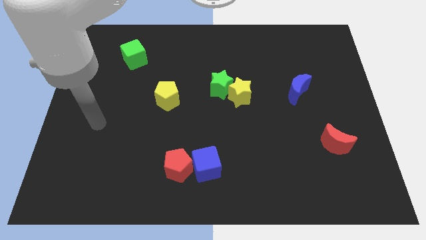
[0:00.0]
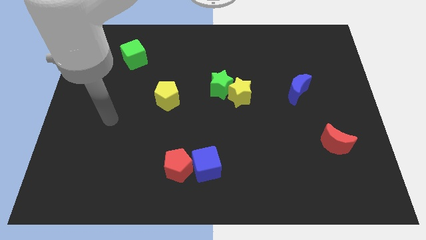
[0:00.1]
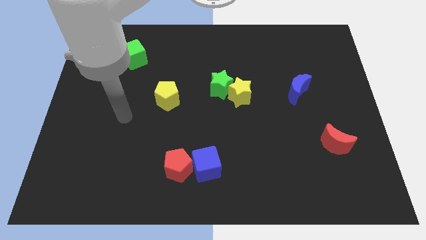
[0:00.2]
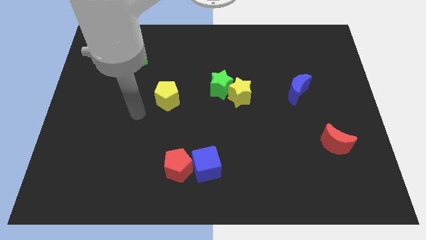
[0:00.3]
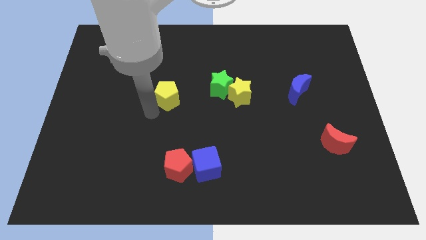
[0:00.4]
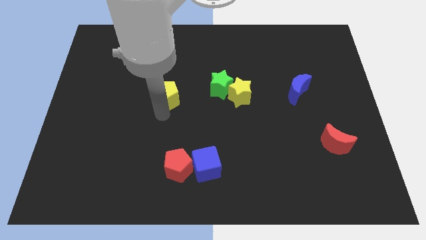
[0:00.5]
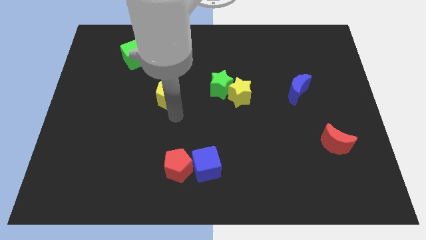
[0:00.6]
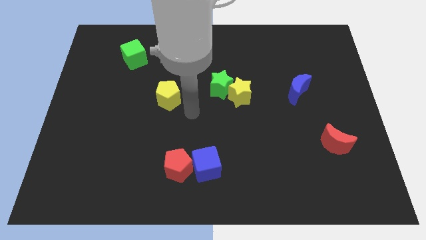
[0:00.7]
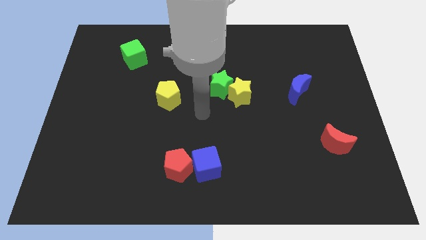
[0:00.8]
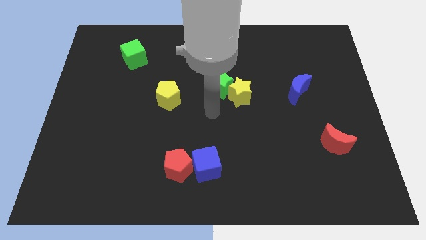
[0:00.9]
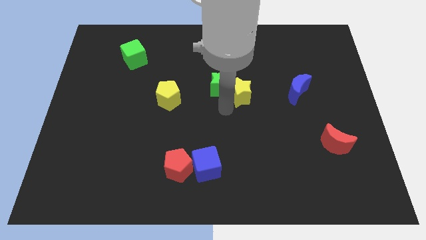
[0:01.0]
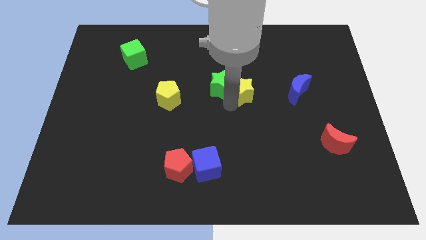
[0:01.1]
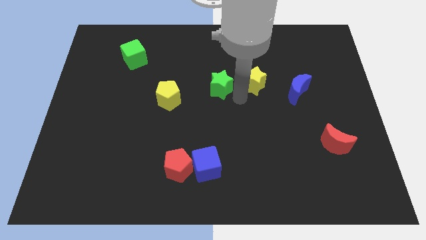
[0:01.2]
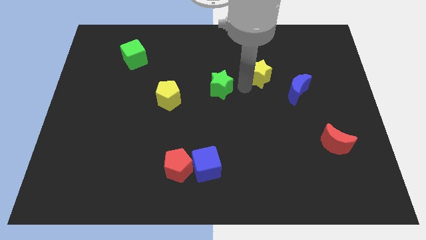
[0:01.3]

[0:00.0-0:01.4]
move the green star away from the yellow star

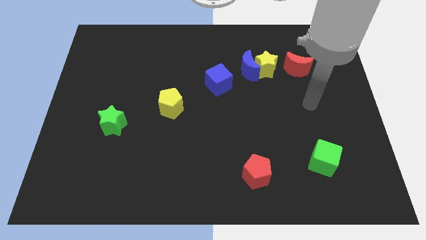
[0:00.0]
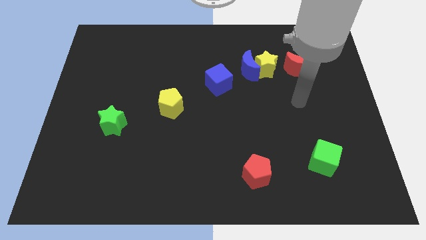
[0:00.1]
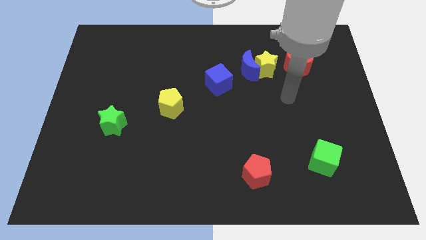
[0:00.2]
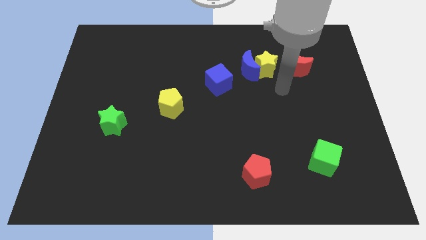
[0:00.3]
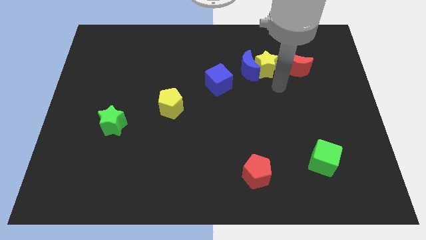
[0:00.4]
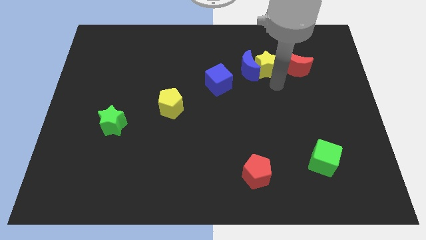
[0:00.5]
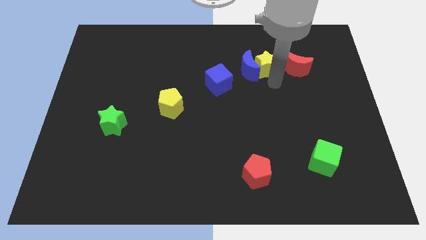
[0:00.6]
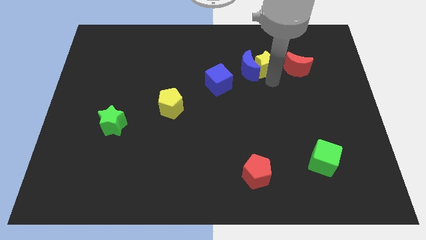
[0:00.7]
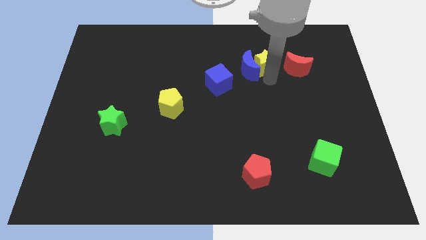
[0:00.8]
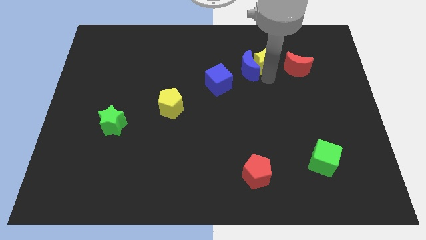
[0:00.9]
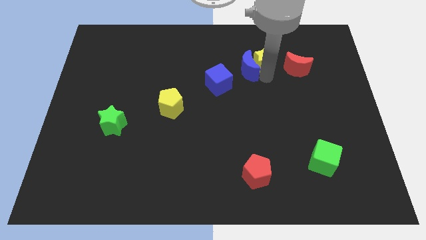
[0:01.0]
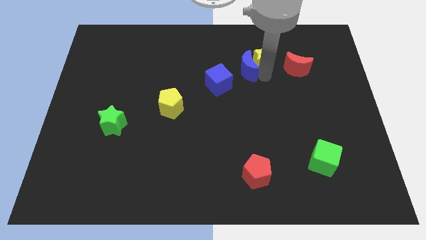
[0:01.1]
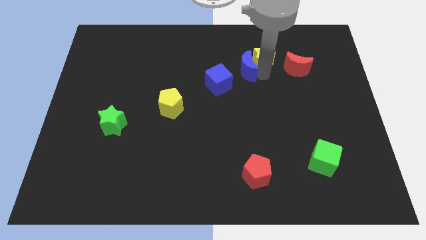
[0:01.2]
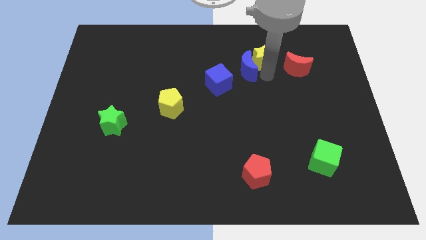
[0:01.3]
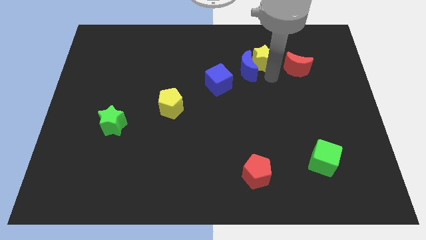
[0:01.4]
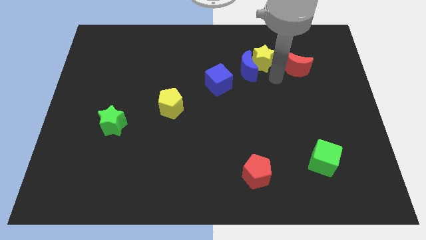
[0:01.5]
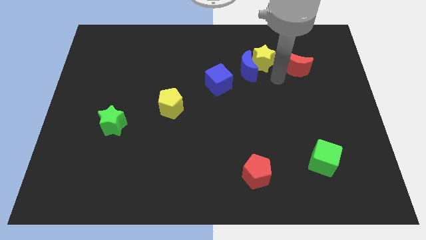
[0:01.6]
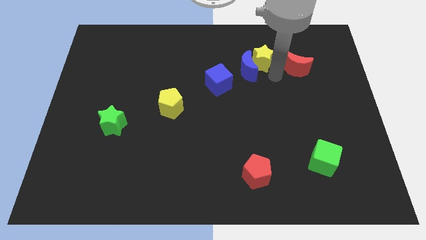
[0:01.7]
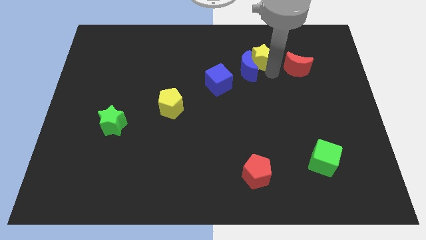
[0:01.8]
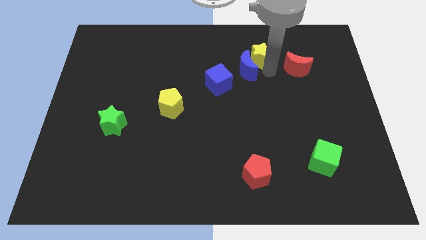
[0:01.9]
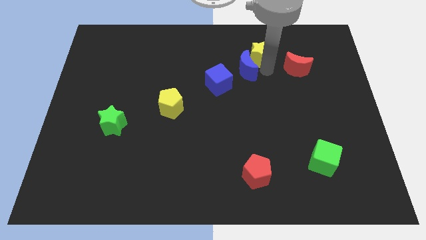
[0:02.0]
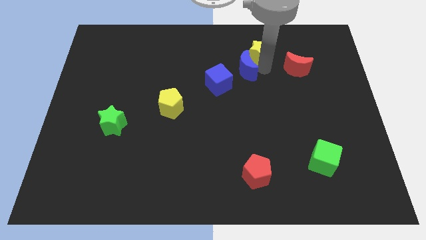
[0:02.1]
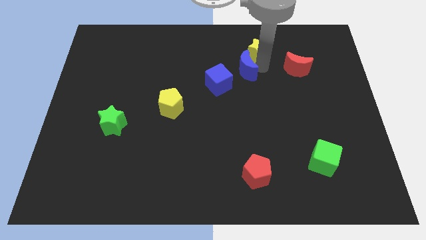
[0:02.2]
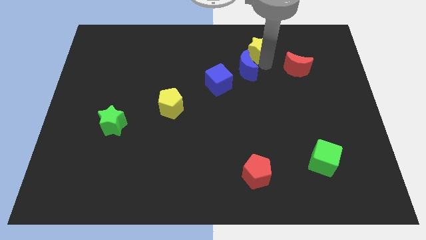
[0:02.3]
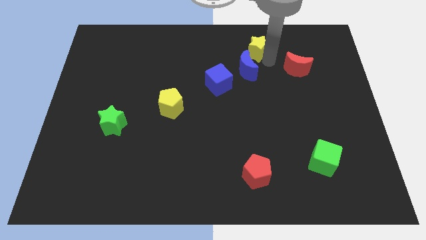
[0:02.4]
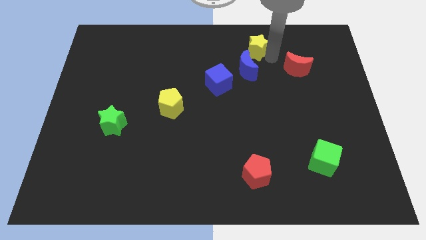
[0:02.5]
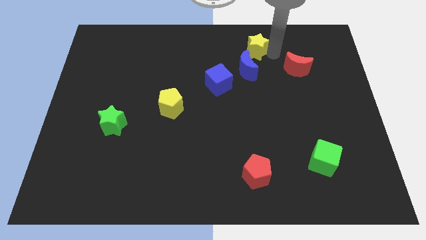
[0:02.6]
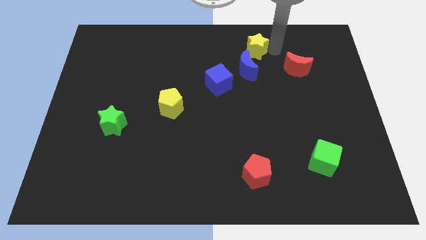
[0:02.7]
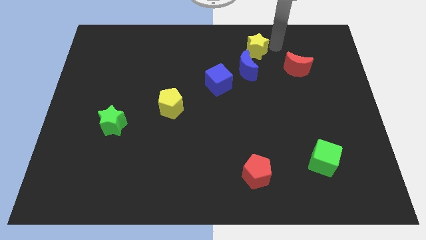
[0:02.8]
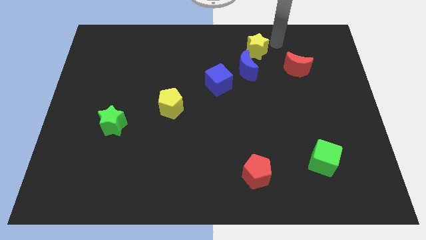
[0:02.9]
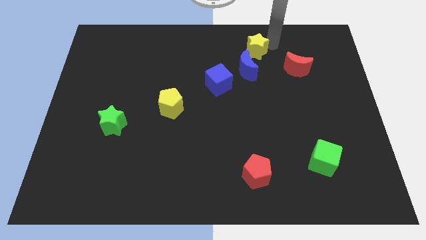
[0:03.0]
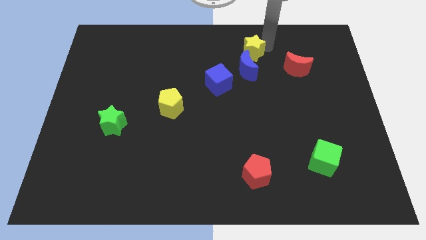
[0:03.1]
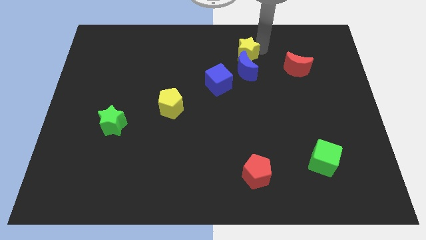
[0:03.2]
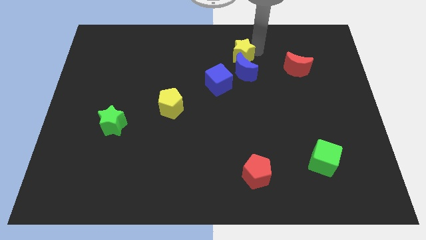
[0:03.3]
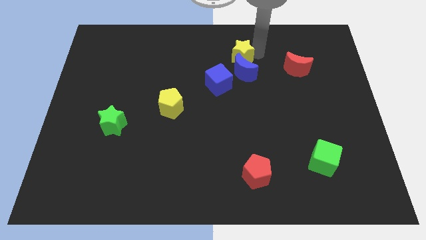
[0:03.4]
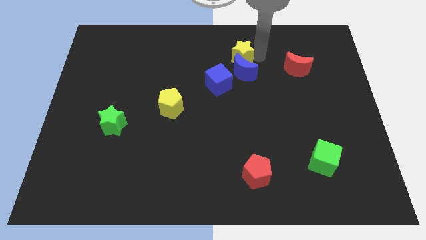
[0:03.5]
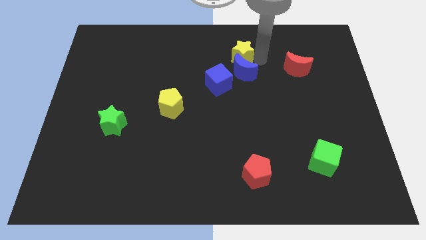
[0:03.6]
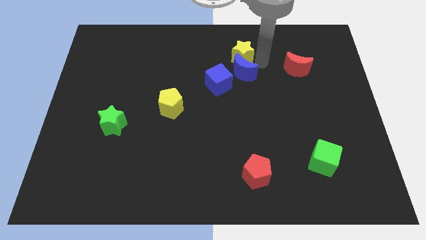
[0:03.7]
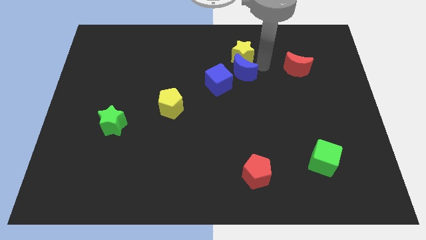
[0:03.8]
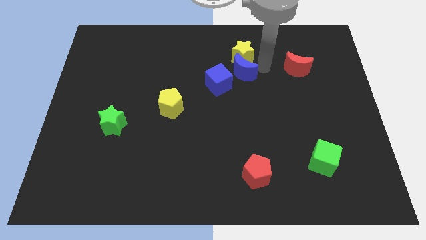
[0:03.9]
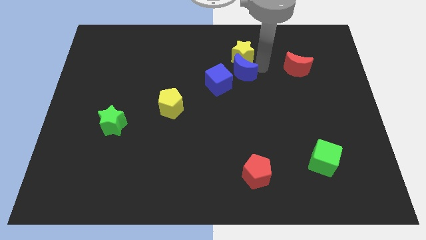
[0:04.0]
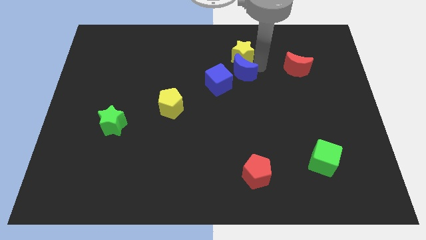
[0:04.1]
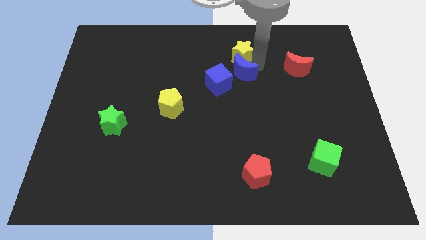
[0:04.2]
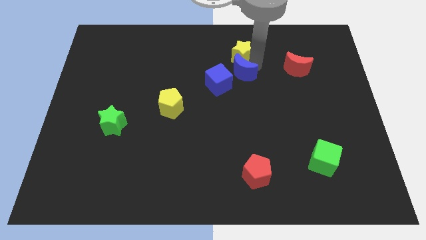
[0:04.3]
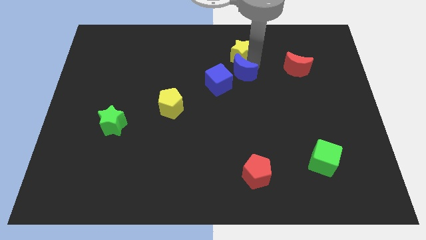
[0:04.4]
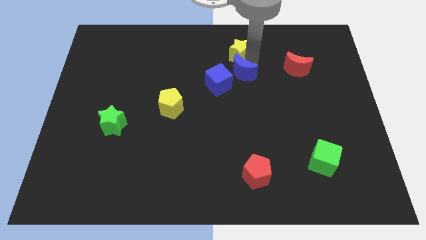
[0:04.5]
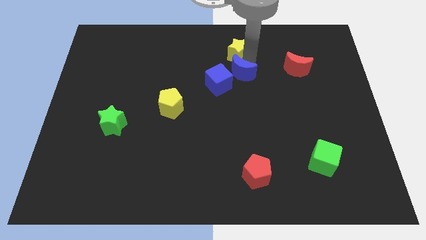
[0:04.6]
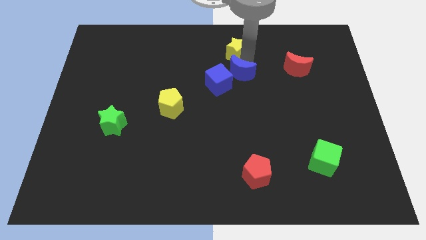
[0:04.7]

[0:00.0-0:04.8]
pull the yellow star apart from the blue moon and red moon

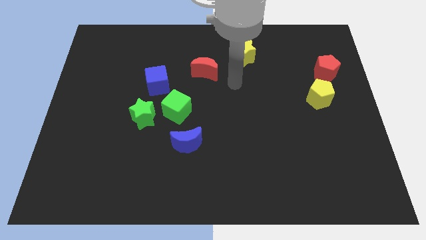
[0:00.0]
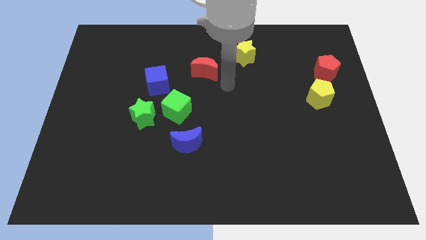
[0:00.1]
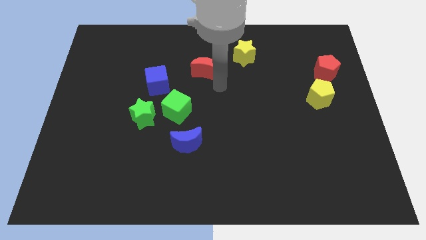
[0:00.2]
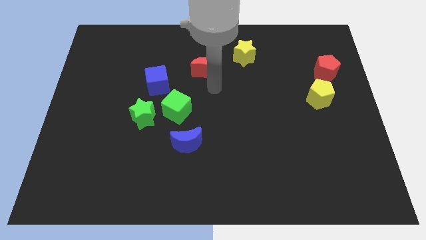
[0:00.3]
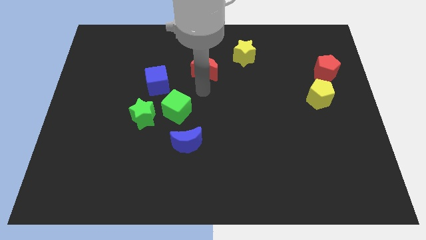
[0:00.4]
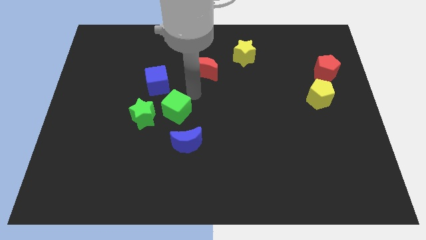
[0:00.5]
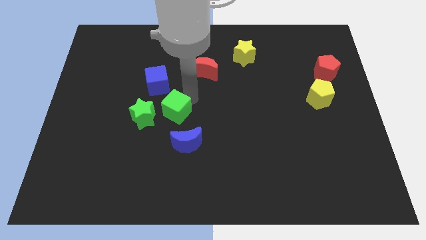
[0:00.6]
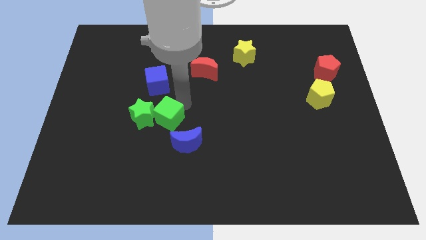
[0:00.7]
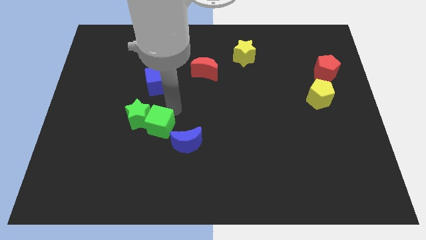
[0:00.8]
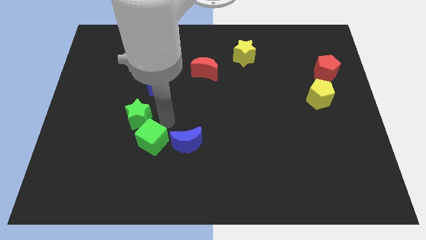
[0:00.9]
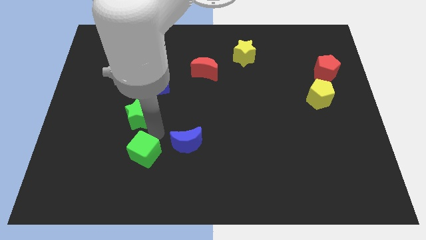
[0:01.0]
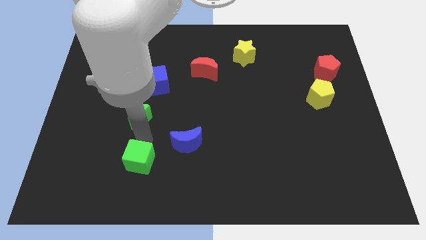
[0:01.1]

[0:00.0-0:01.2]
move the green star away from the green cube

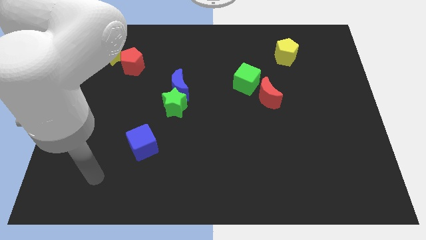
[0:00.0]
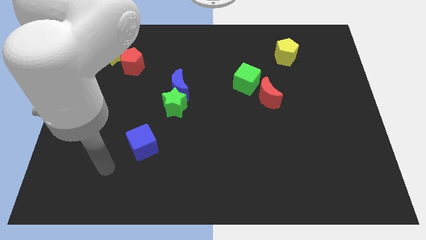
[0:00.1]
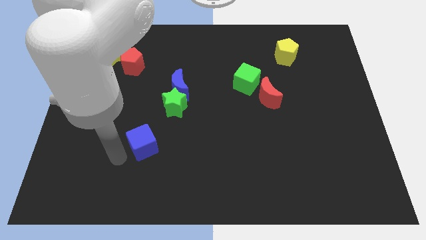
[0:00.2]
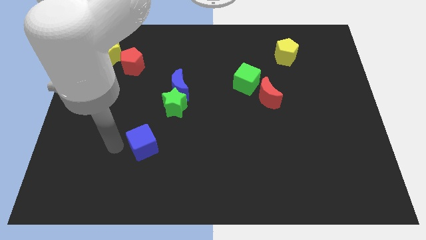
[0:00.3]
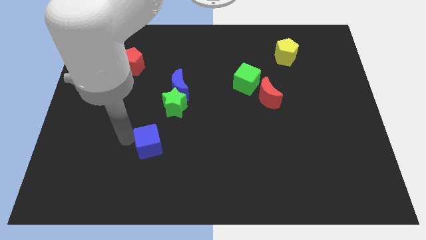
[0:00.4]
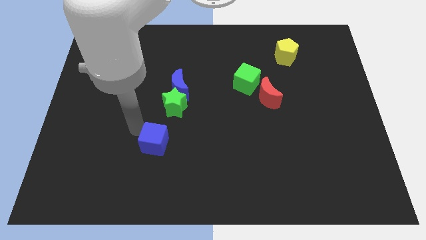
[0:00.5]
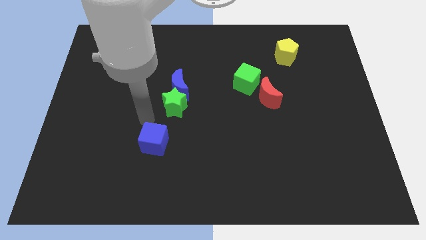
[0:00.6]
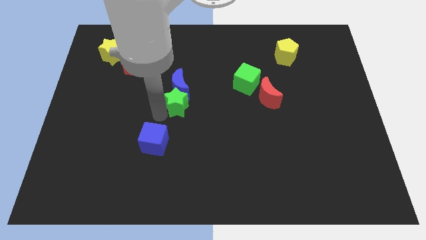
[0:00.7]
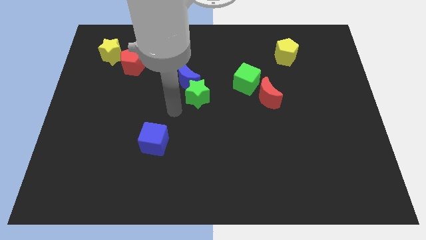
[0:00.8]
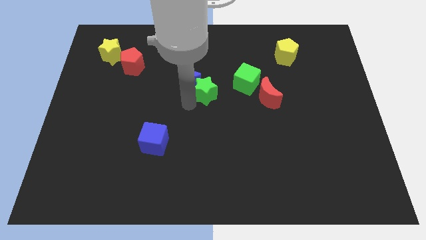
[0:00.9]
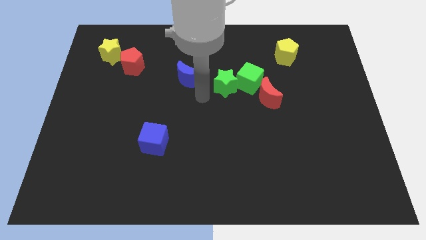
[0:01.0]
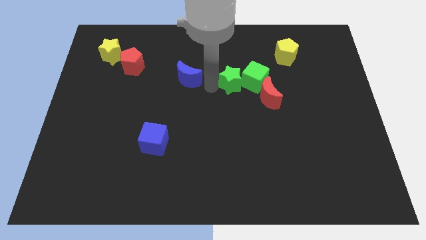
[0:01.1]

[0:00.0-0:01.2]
pull the blue moon apart from the green star

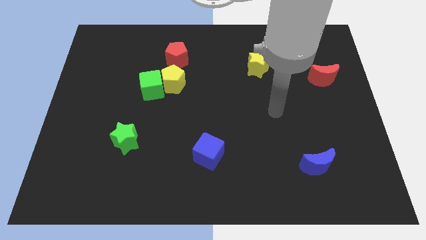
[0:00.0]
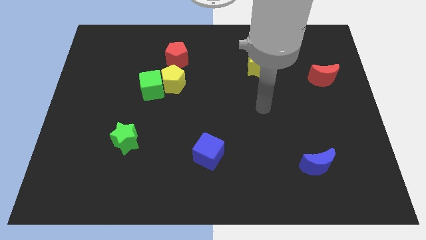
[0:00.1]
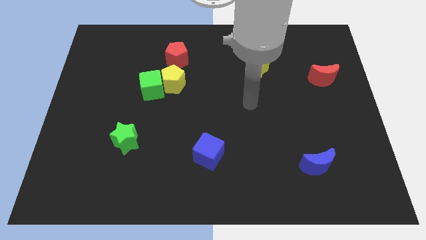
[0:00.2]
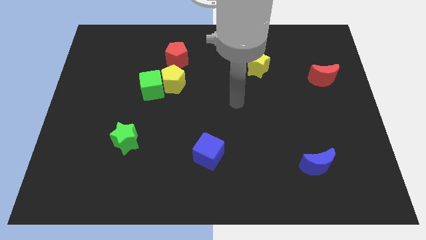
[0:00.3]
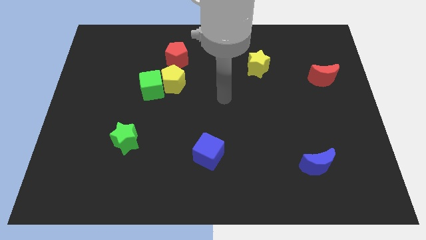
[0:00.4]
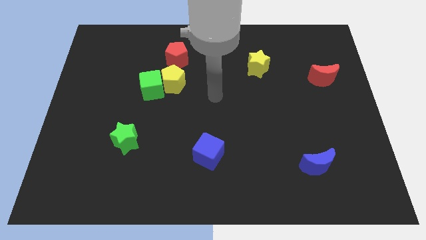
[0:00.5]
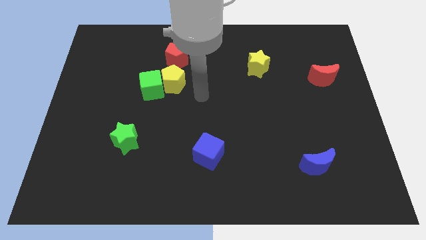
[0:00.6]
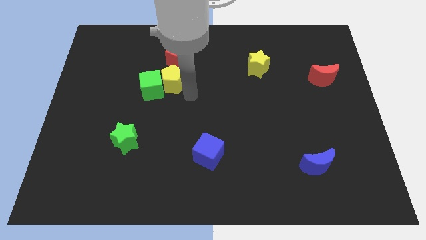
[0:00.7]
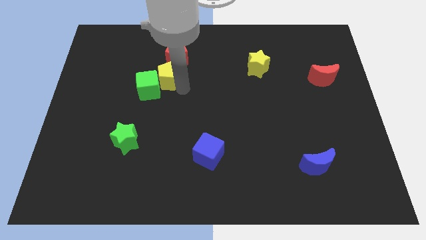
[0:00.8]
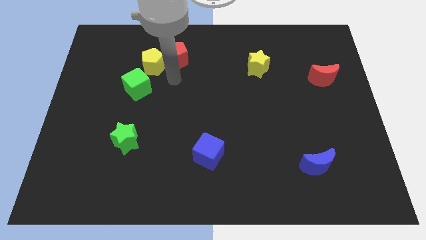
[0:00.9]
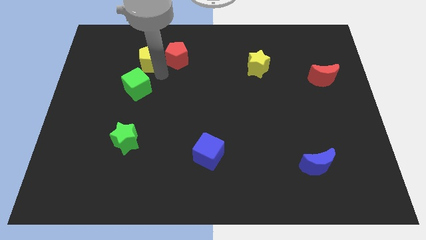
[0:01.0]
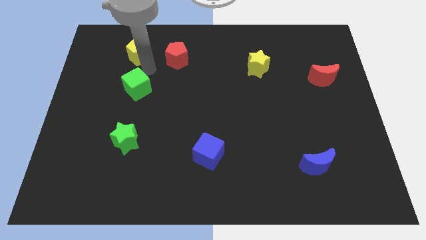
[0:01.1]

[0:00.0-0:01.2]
move the green cube away from the yellow pentagon
